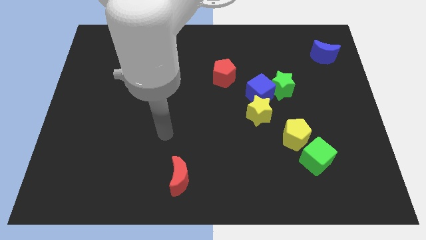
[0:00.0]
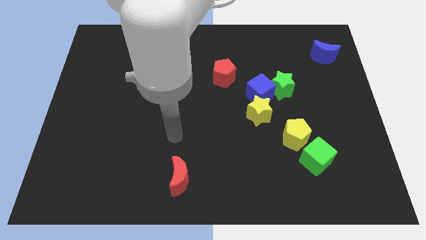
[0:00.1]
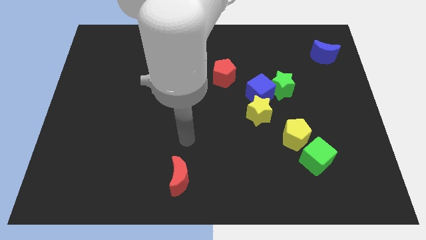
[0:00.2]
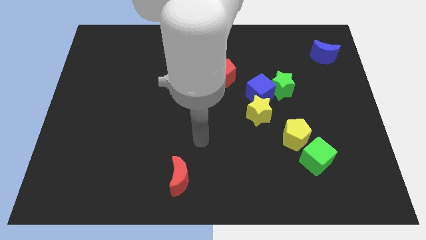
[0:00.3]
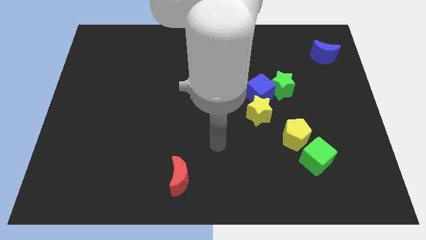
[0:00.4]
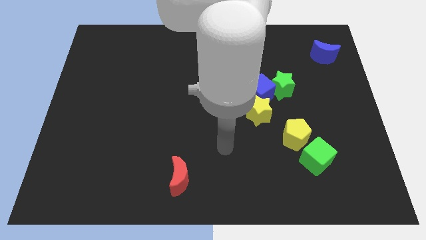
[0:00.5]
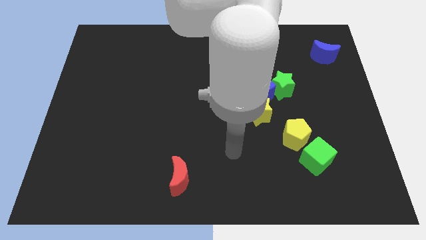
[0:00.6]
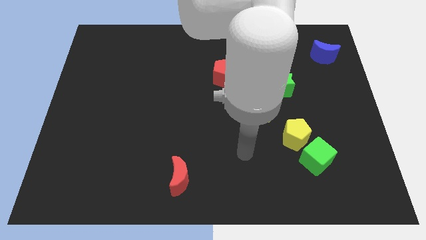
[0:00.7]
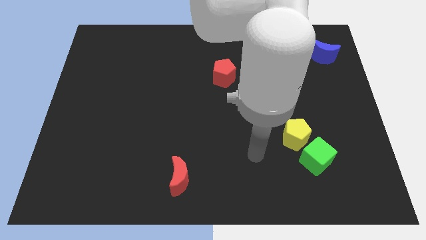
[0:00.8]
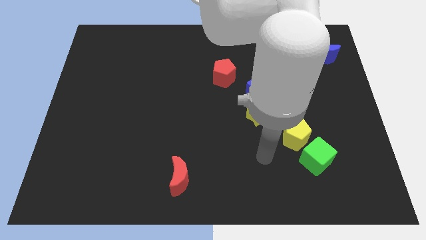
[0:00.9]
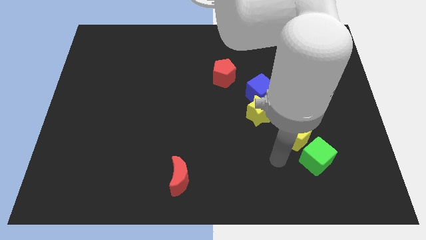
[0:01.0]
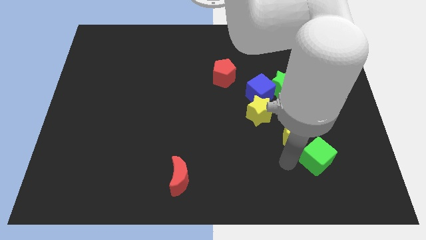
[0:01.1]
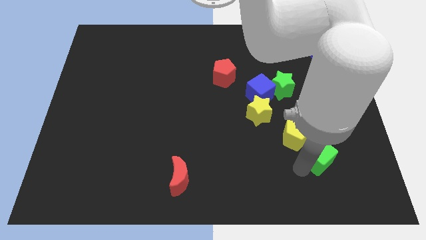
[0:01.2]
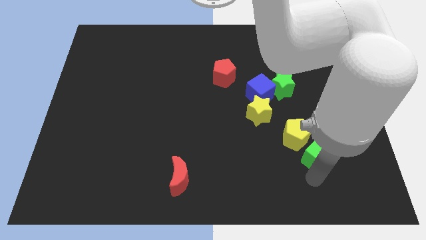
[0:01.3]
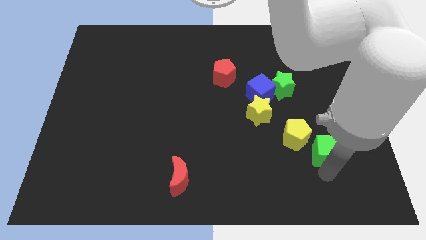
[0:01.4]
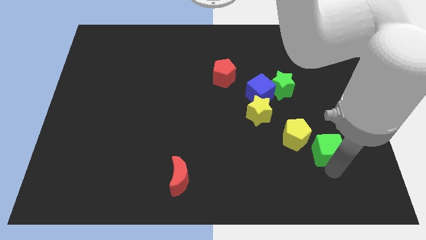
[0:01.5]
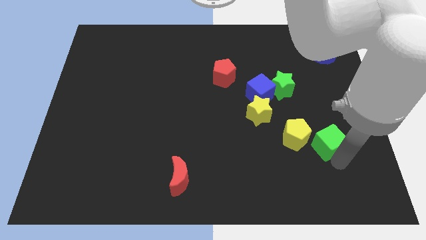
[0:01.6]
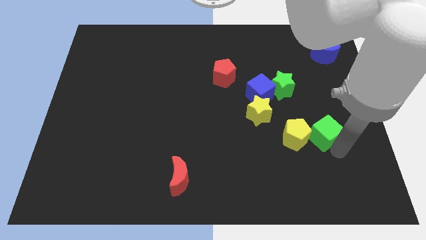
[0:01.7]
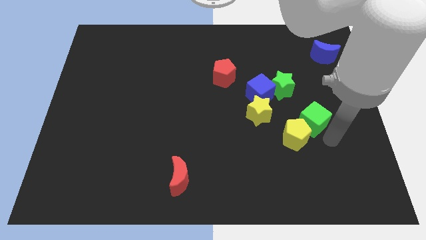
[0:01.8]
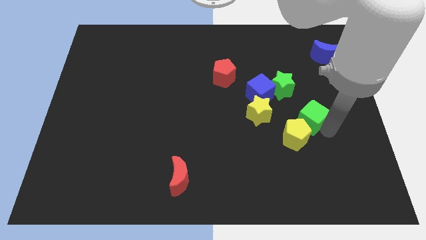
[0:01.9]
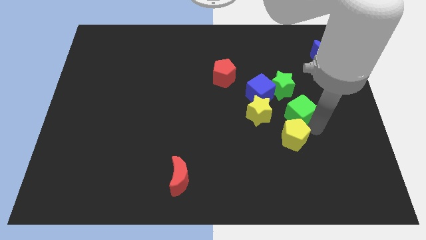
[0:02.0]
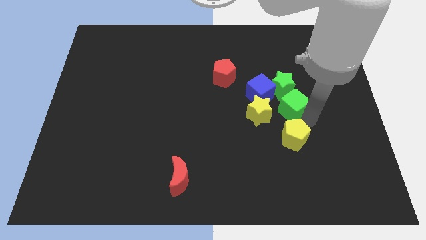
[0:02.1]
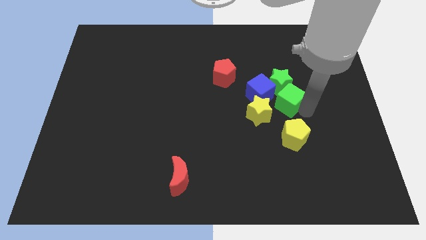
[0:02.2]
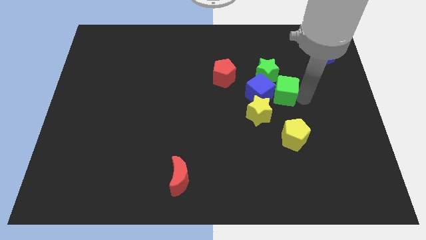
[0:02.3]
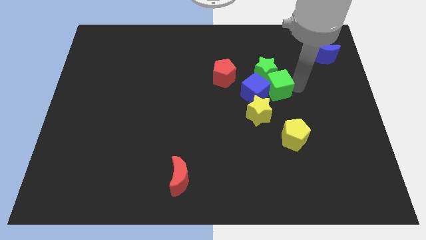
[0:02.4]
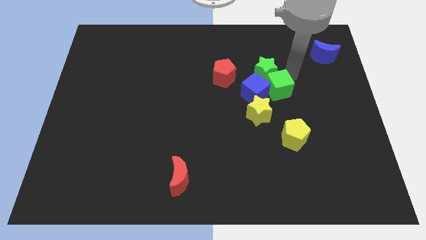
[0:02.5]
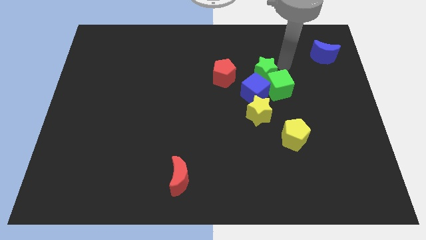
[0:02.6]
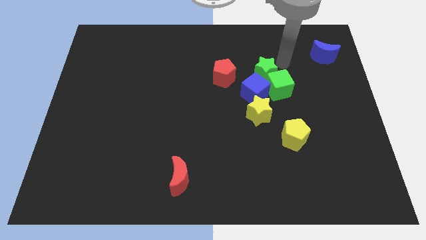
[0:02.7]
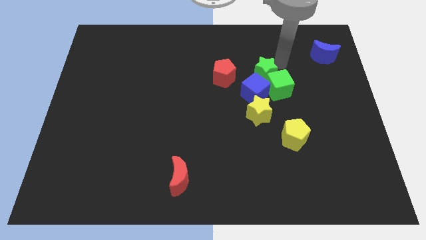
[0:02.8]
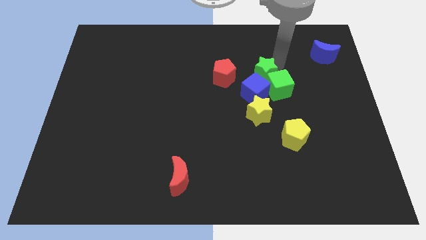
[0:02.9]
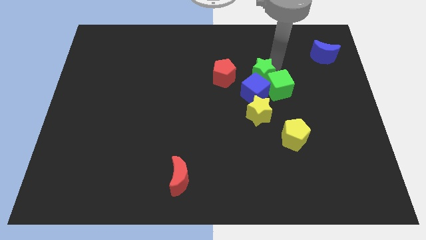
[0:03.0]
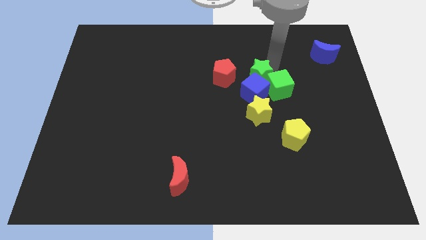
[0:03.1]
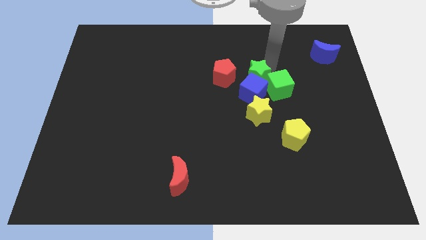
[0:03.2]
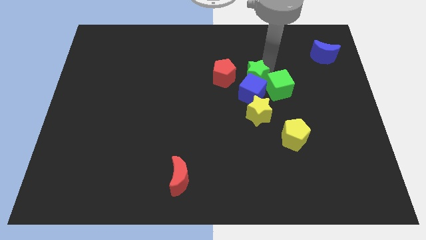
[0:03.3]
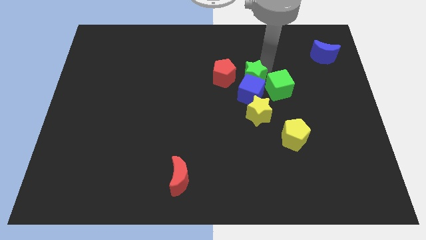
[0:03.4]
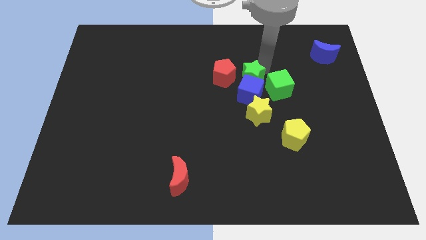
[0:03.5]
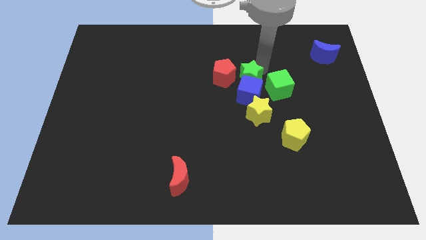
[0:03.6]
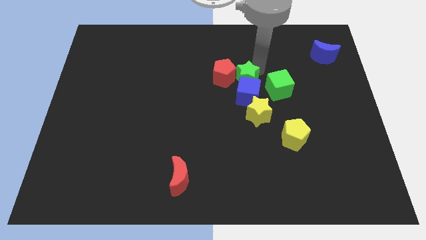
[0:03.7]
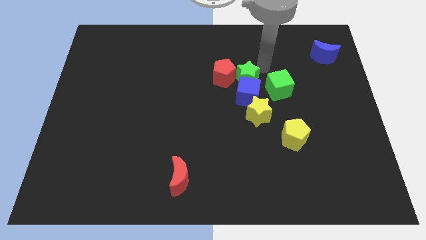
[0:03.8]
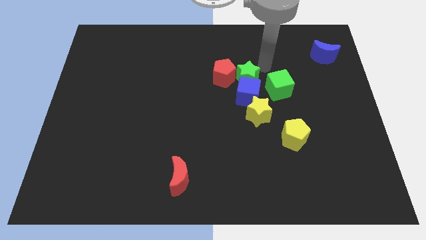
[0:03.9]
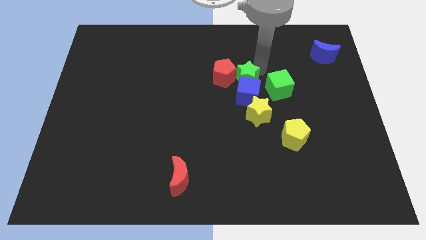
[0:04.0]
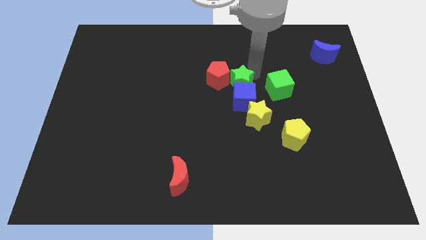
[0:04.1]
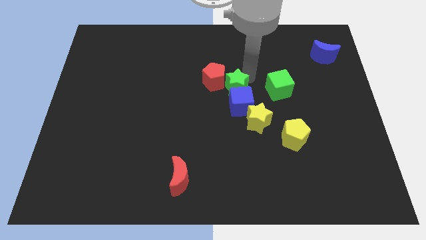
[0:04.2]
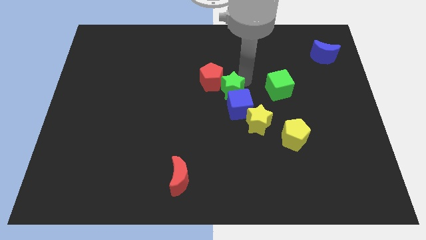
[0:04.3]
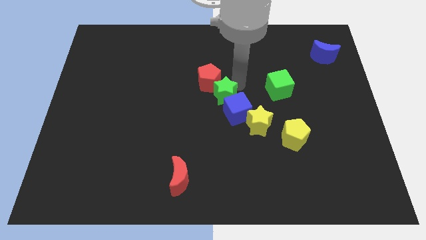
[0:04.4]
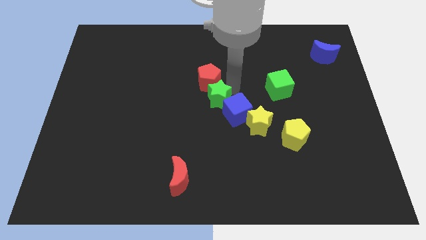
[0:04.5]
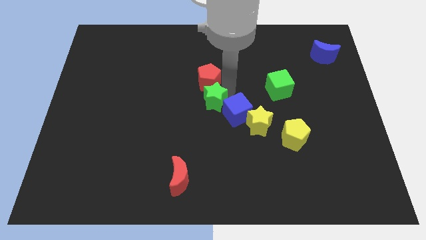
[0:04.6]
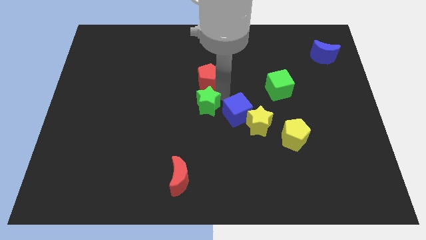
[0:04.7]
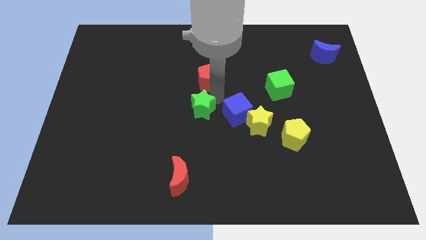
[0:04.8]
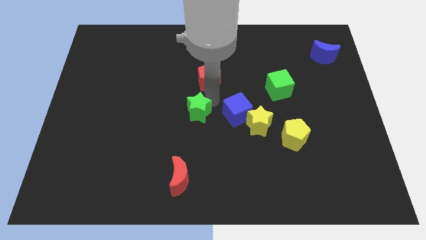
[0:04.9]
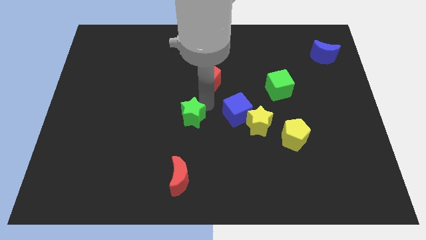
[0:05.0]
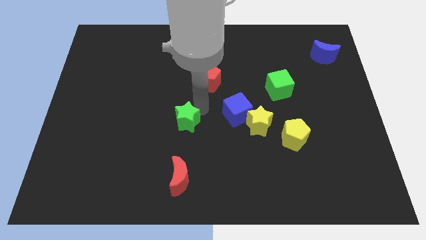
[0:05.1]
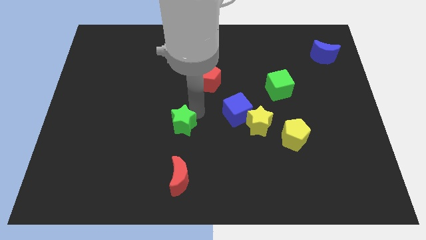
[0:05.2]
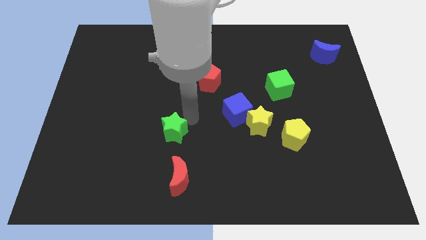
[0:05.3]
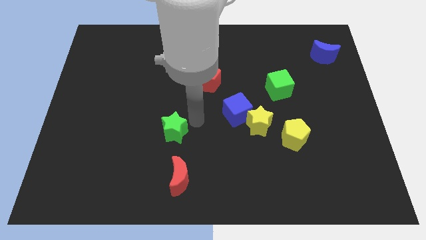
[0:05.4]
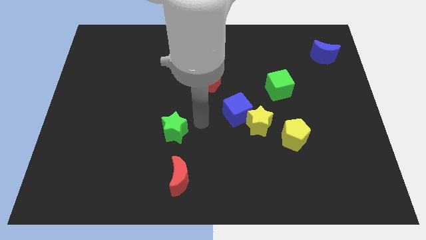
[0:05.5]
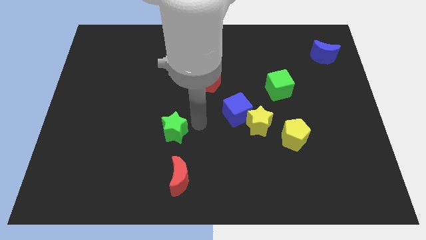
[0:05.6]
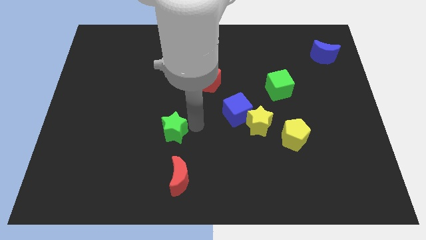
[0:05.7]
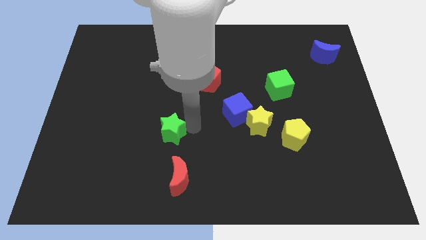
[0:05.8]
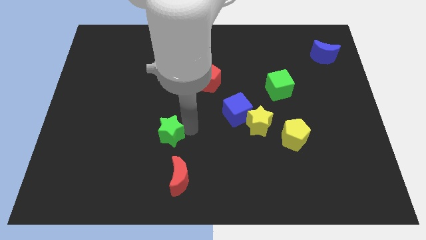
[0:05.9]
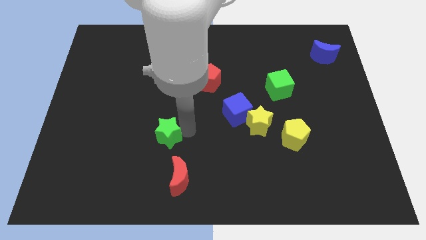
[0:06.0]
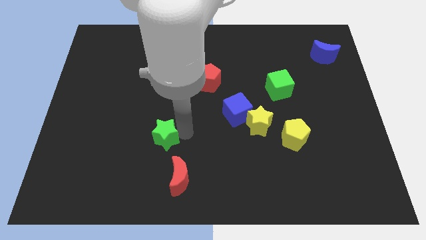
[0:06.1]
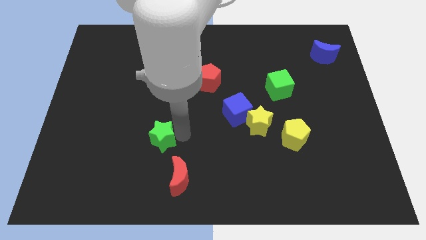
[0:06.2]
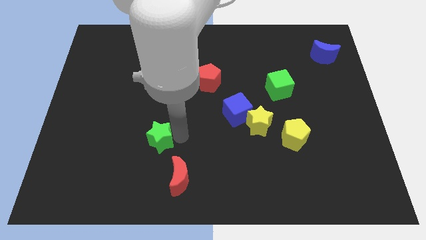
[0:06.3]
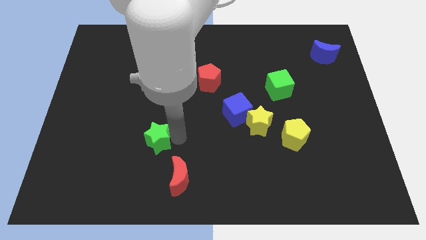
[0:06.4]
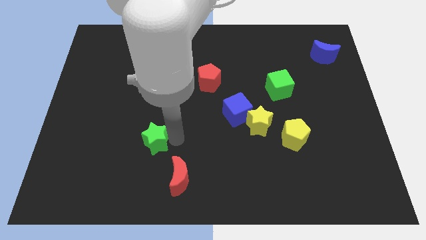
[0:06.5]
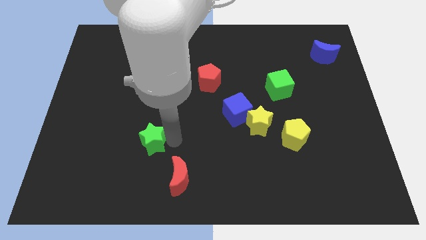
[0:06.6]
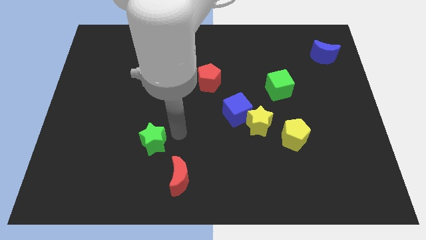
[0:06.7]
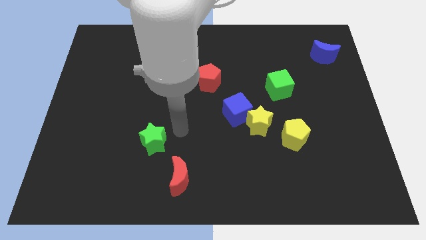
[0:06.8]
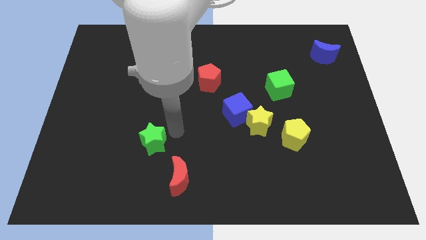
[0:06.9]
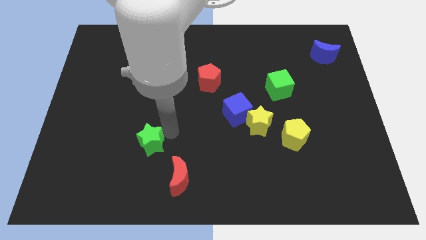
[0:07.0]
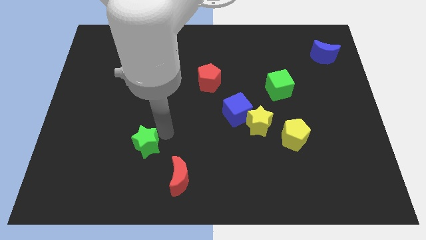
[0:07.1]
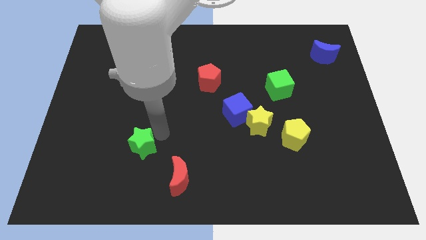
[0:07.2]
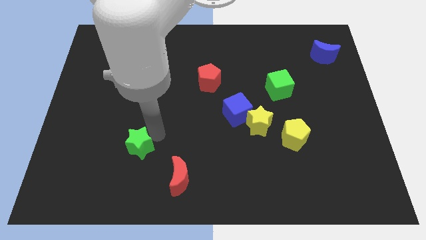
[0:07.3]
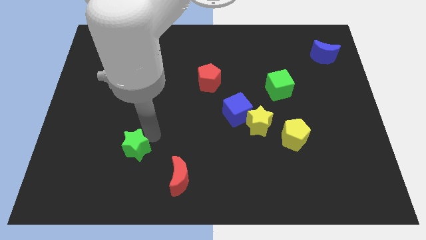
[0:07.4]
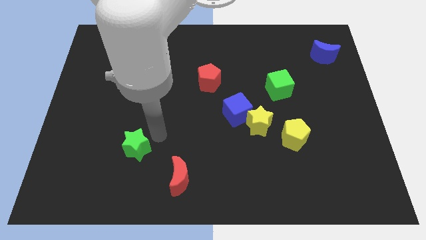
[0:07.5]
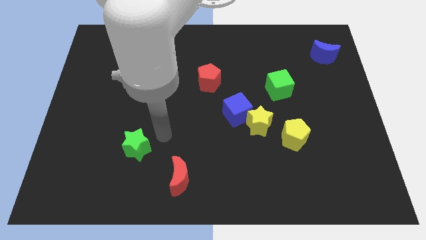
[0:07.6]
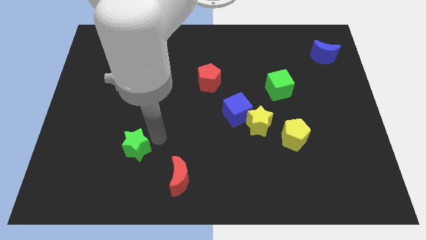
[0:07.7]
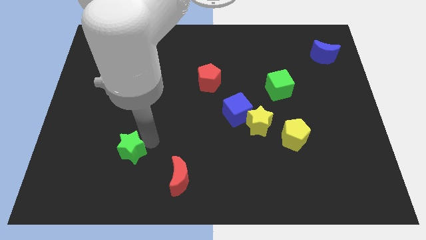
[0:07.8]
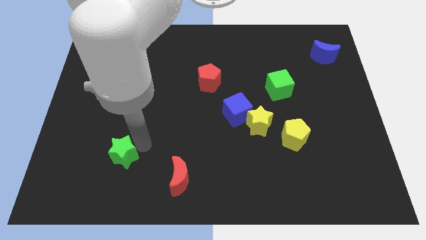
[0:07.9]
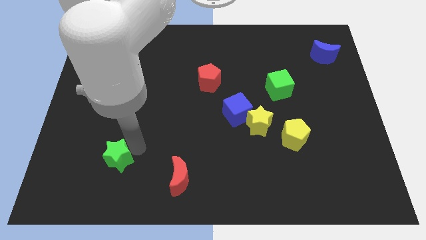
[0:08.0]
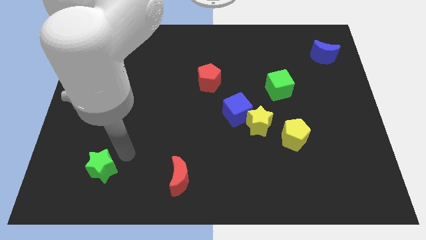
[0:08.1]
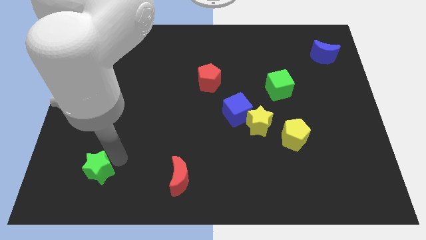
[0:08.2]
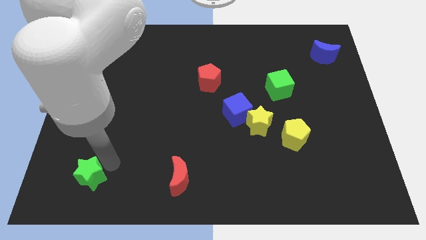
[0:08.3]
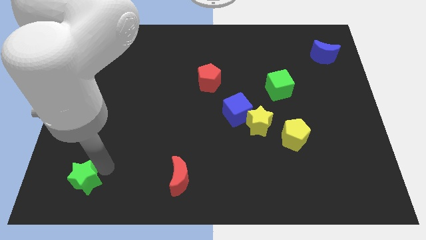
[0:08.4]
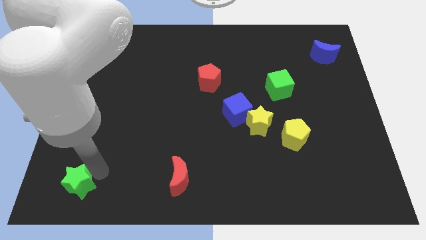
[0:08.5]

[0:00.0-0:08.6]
put the green star to the bottom left of the board
